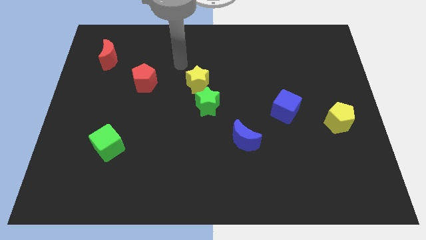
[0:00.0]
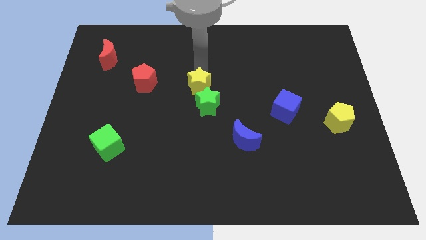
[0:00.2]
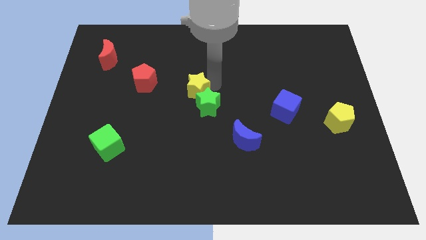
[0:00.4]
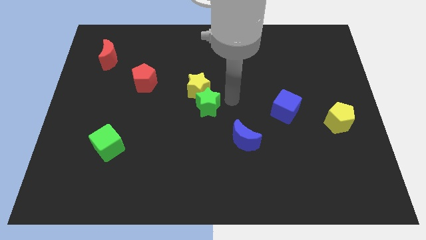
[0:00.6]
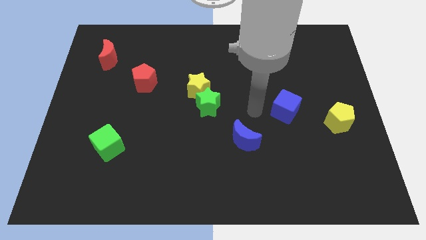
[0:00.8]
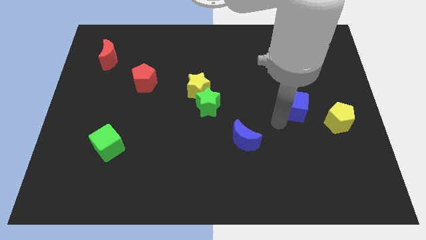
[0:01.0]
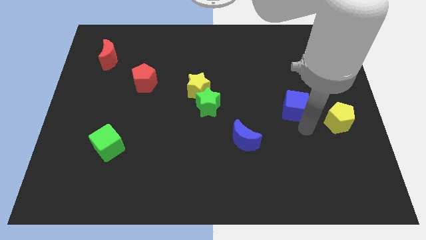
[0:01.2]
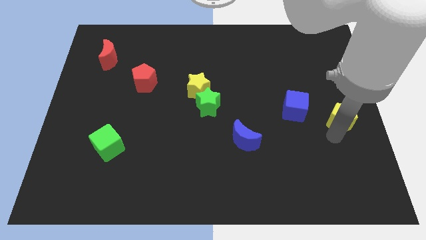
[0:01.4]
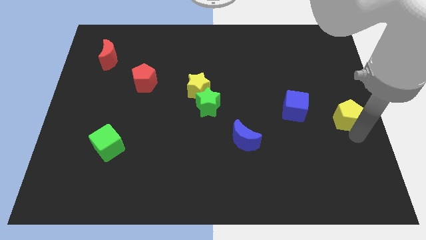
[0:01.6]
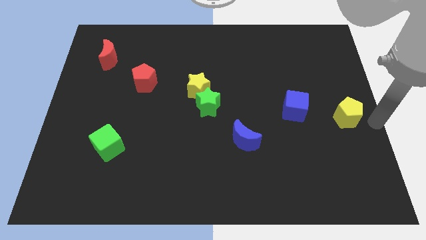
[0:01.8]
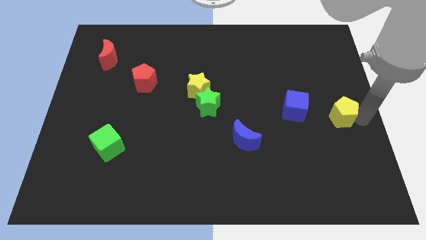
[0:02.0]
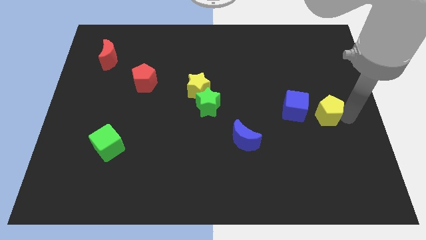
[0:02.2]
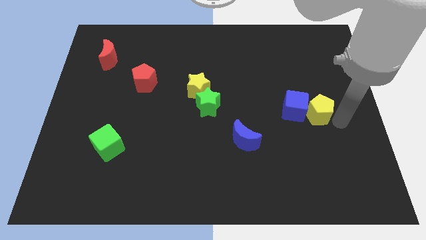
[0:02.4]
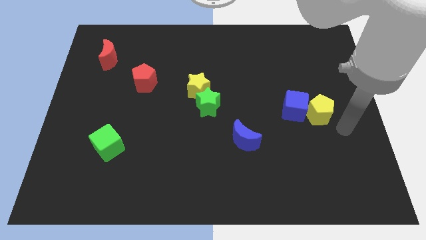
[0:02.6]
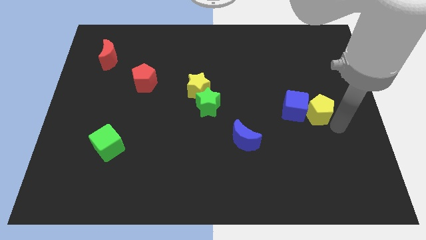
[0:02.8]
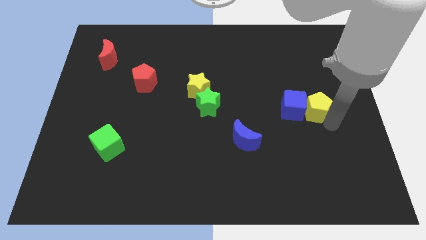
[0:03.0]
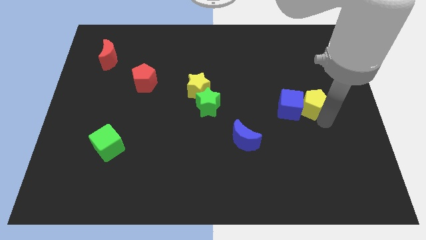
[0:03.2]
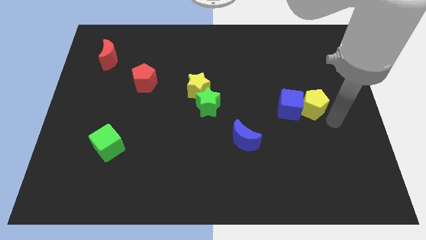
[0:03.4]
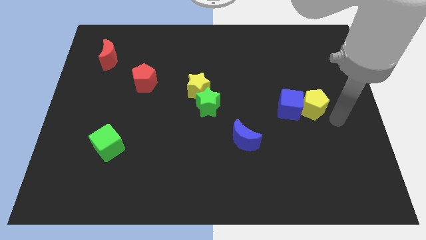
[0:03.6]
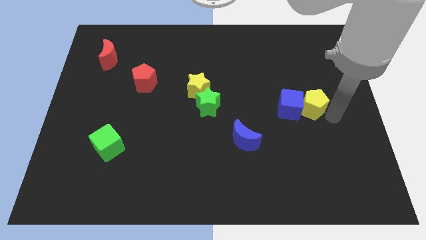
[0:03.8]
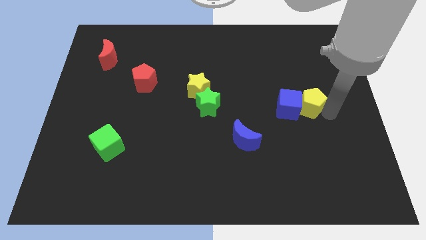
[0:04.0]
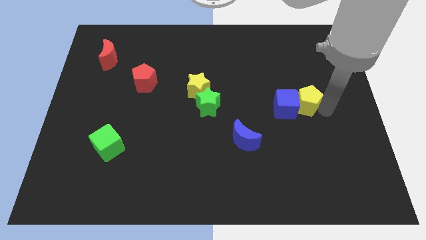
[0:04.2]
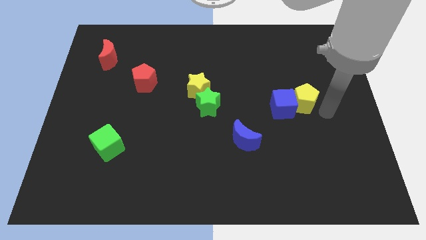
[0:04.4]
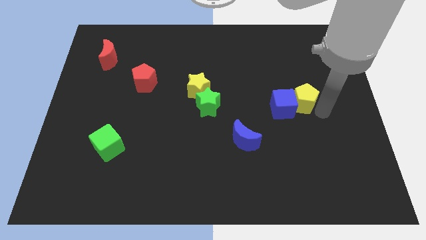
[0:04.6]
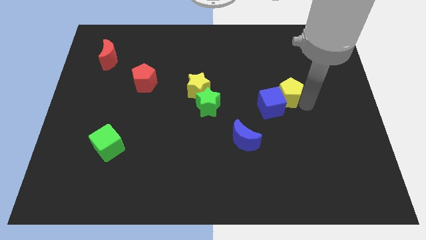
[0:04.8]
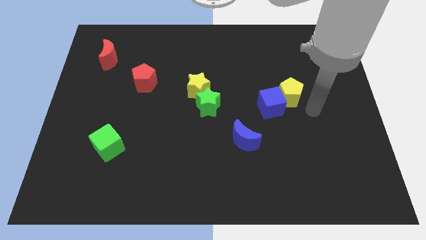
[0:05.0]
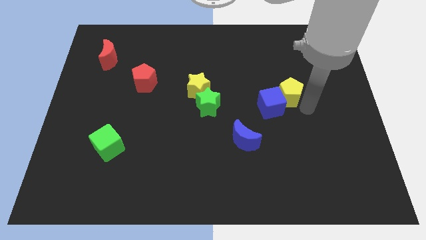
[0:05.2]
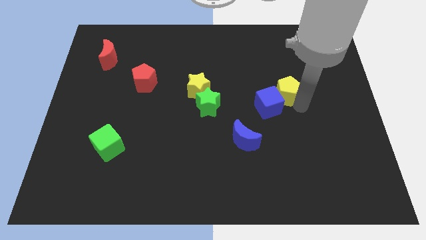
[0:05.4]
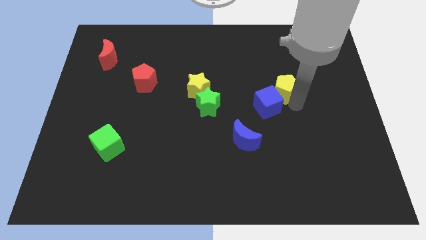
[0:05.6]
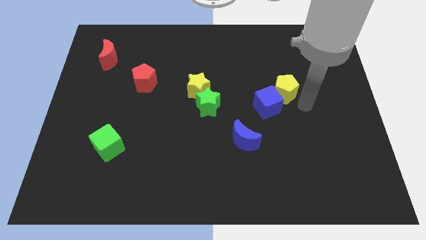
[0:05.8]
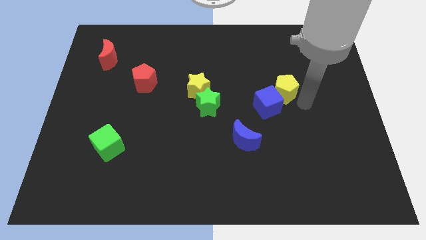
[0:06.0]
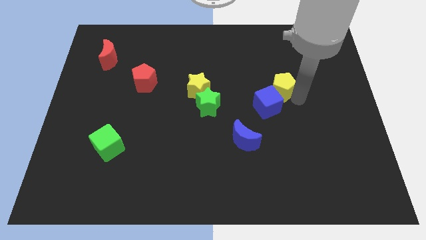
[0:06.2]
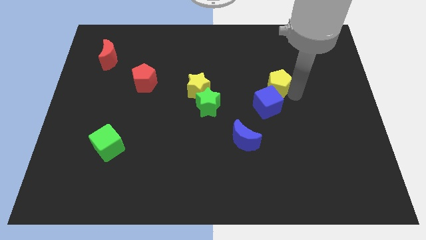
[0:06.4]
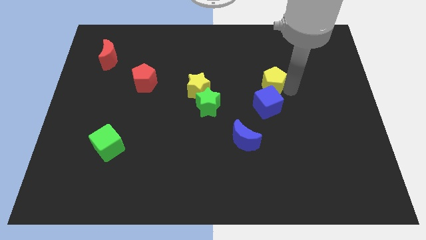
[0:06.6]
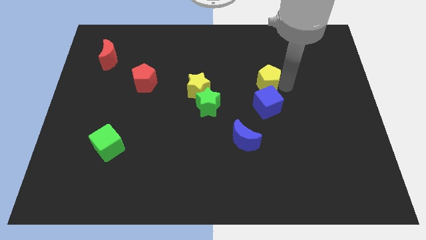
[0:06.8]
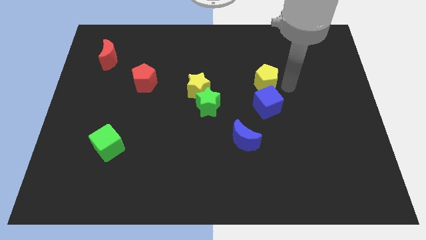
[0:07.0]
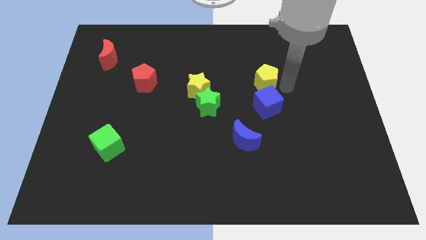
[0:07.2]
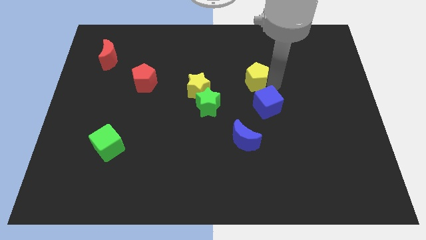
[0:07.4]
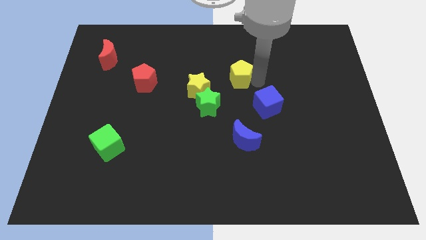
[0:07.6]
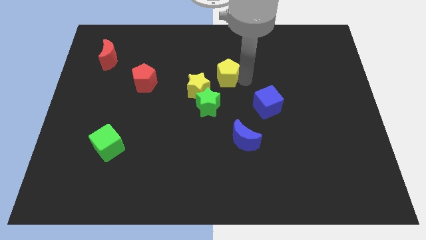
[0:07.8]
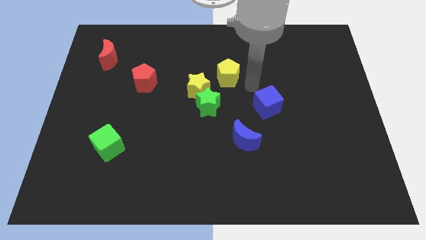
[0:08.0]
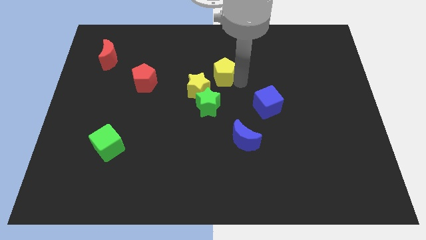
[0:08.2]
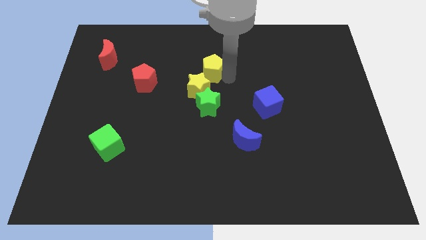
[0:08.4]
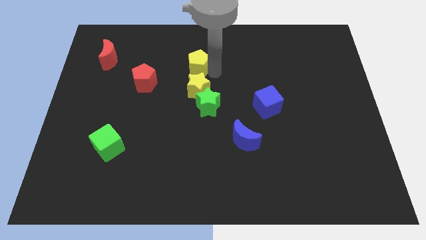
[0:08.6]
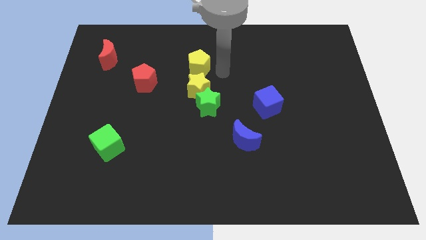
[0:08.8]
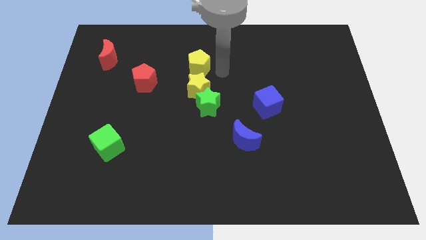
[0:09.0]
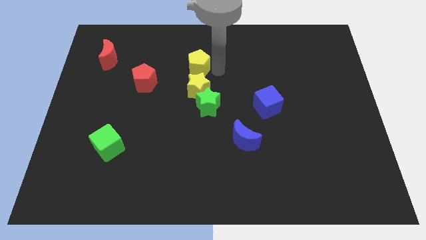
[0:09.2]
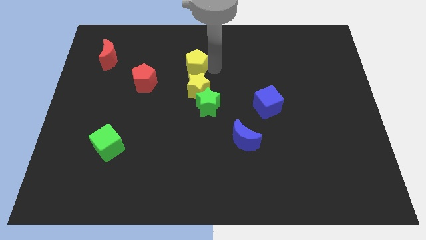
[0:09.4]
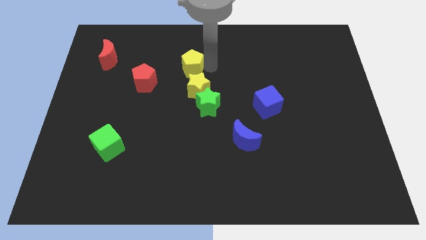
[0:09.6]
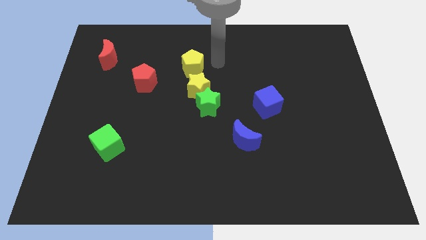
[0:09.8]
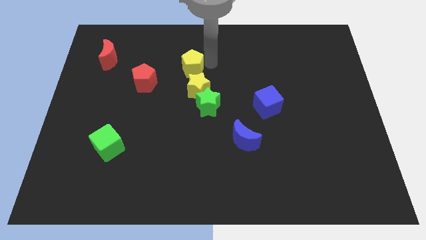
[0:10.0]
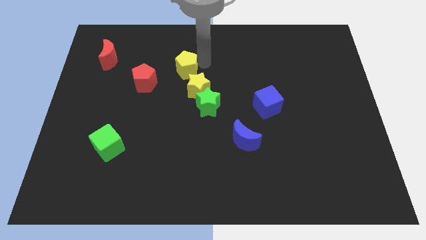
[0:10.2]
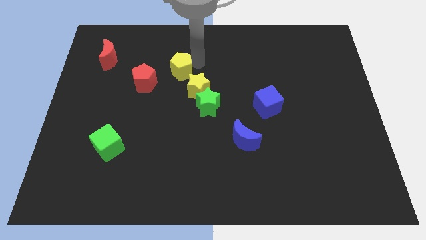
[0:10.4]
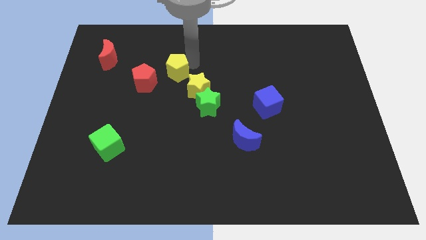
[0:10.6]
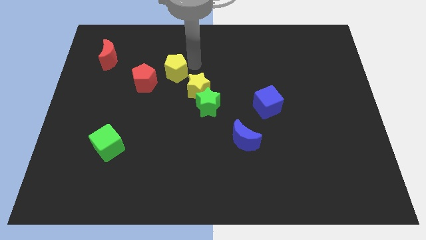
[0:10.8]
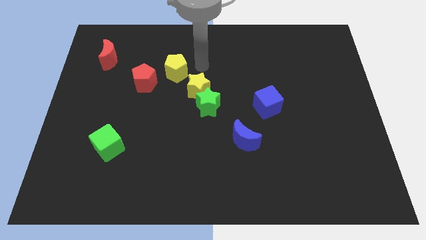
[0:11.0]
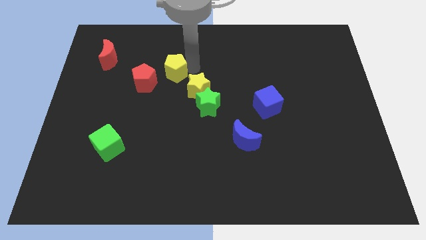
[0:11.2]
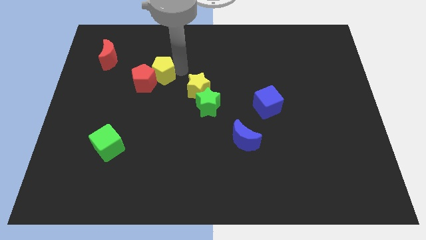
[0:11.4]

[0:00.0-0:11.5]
slide the yellow pentagon towards the red pentagon

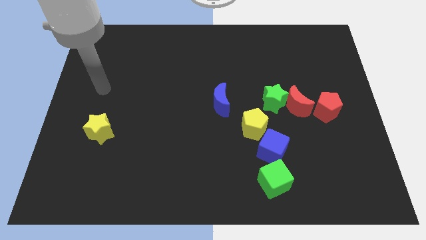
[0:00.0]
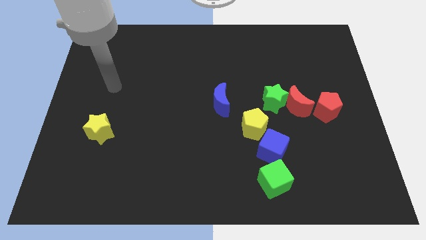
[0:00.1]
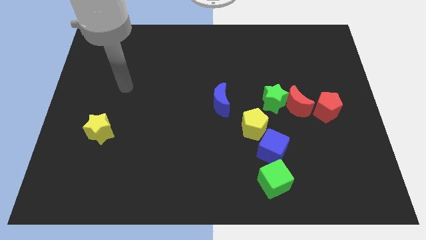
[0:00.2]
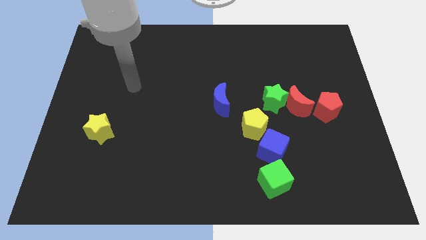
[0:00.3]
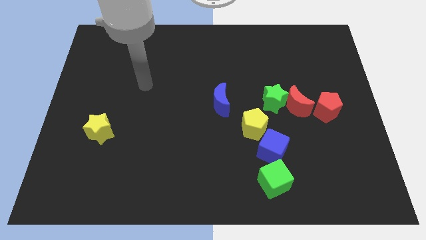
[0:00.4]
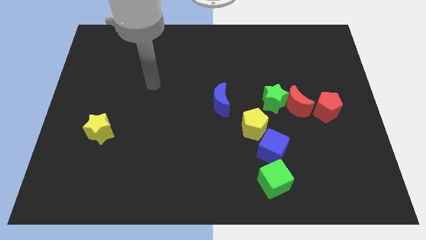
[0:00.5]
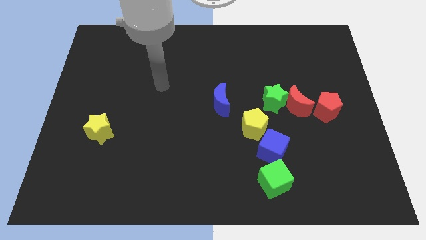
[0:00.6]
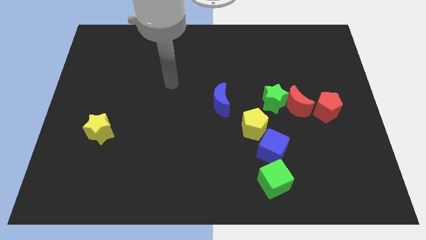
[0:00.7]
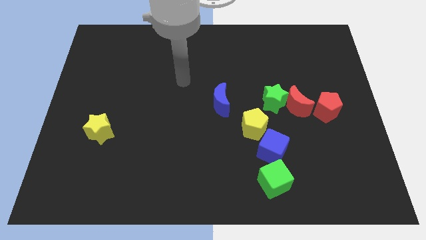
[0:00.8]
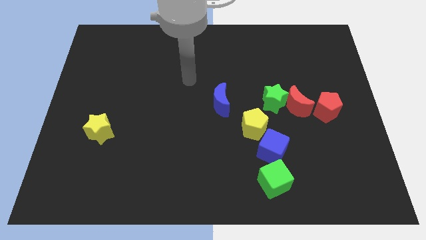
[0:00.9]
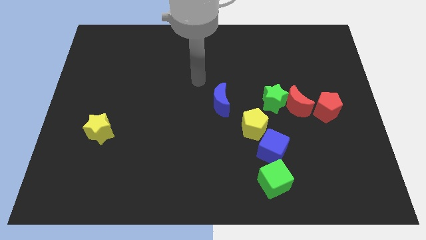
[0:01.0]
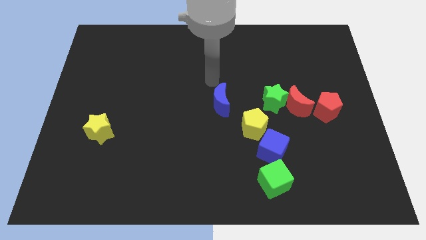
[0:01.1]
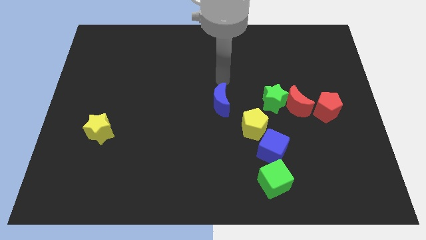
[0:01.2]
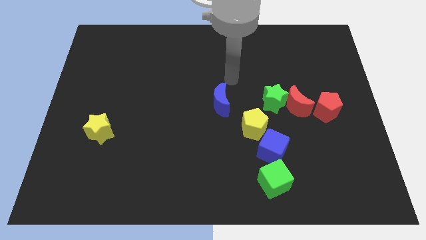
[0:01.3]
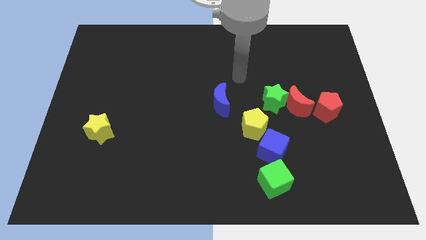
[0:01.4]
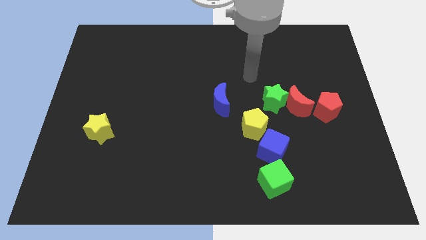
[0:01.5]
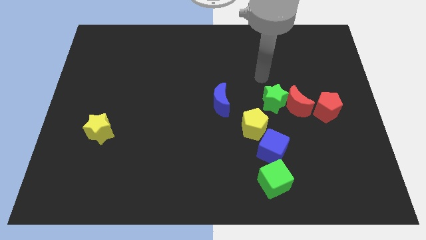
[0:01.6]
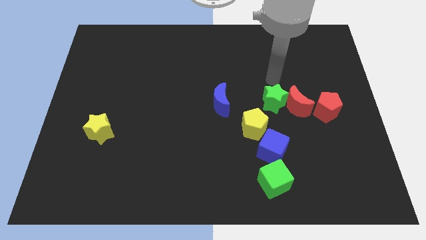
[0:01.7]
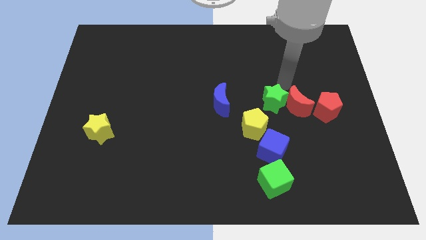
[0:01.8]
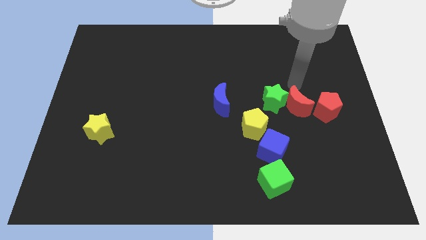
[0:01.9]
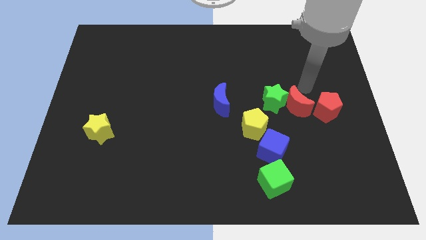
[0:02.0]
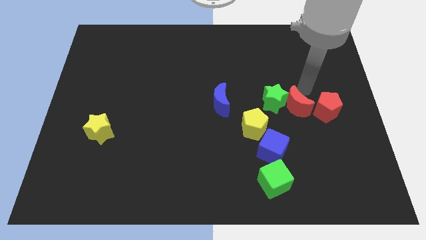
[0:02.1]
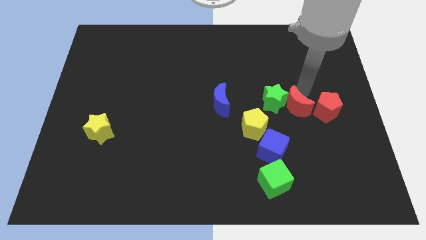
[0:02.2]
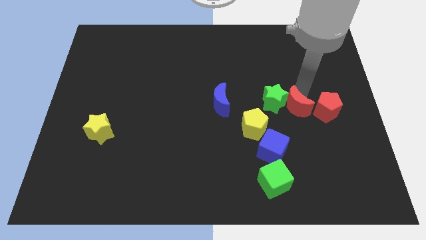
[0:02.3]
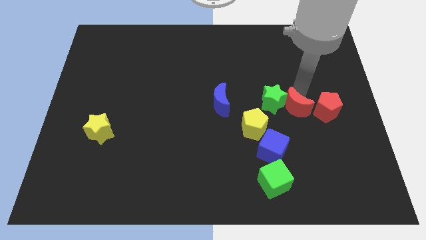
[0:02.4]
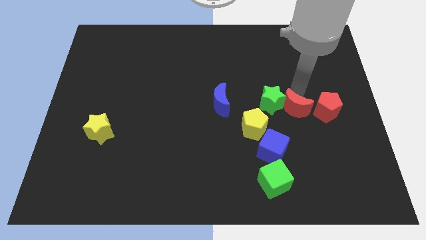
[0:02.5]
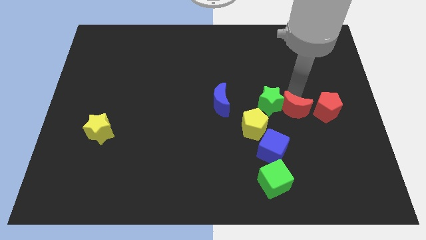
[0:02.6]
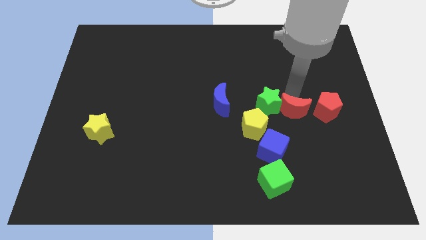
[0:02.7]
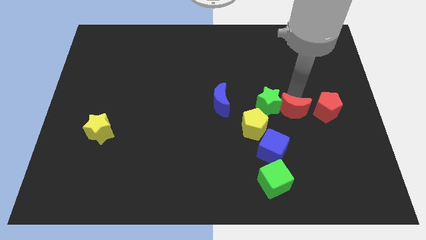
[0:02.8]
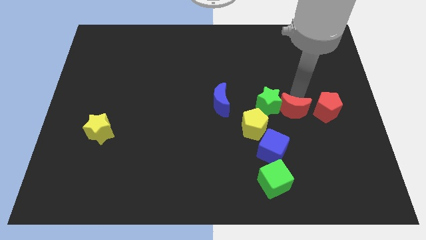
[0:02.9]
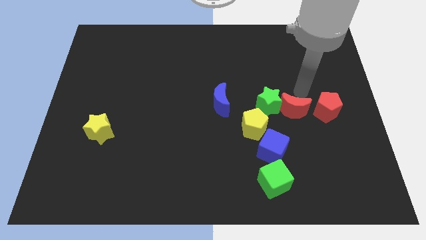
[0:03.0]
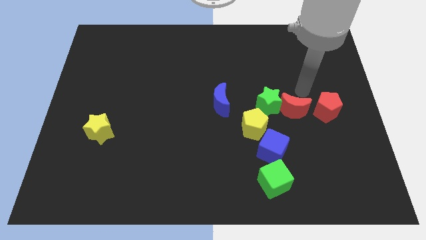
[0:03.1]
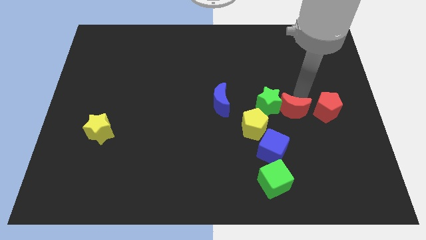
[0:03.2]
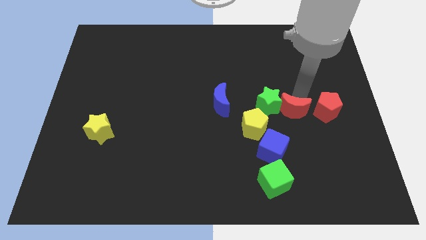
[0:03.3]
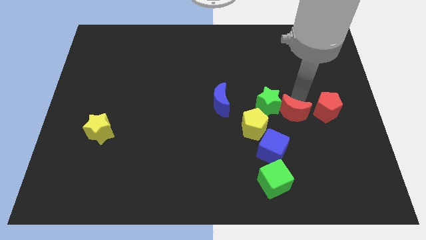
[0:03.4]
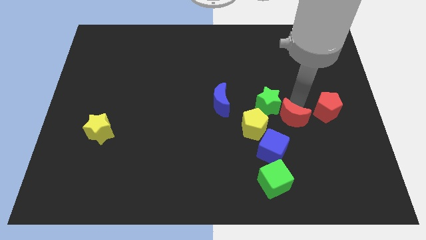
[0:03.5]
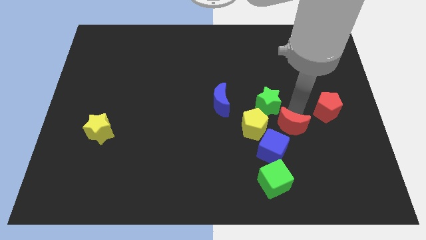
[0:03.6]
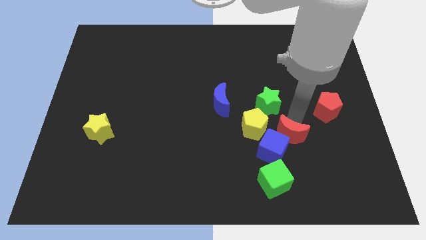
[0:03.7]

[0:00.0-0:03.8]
slide the red moon close to the blue cube
